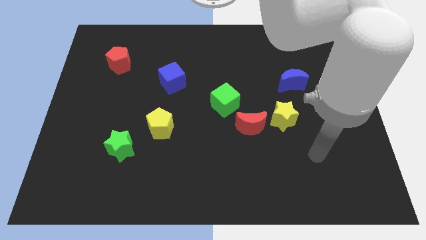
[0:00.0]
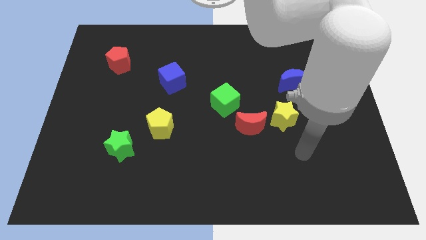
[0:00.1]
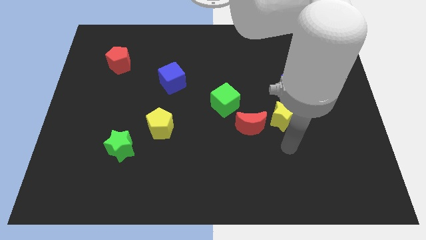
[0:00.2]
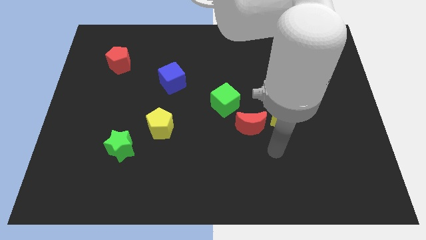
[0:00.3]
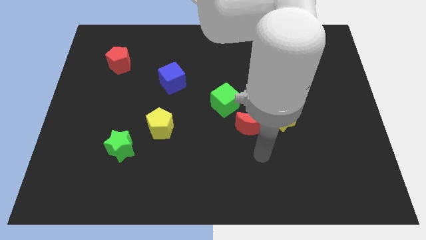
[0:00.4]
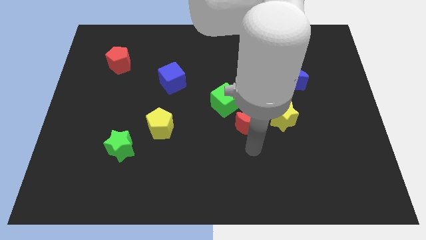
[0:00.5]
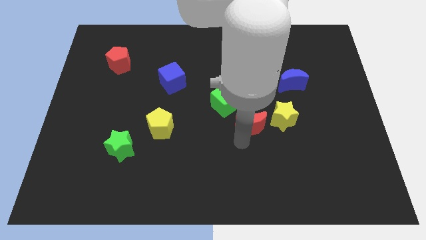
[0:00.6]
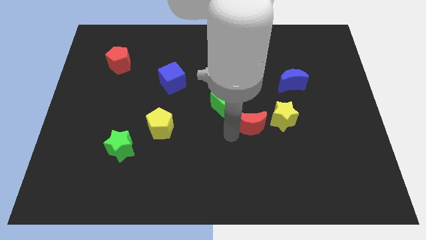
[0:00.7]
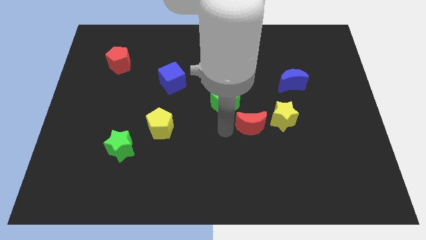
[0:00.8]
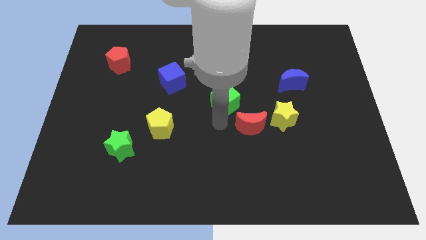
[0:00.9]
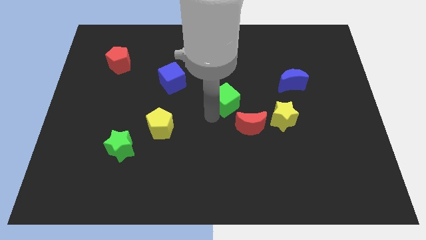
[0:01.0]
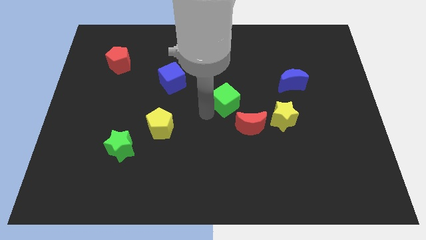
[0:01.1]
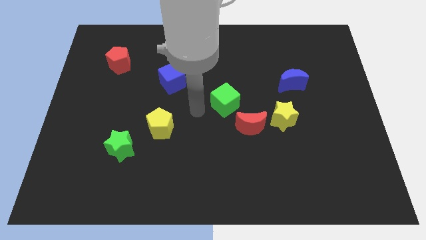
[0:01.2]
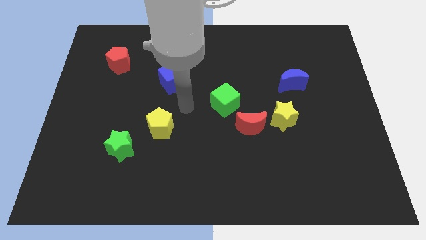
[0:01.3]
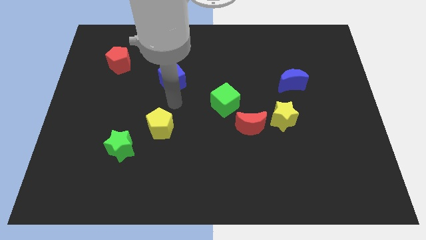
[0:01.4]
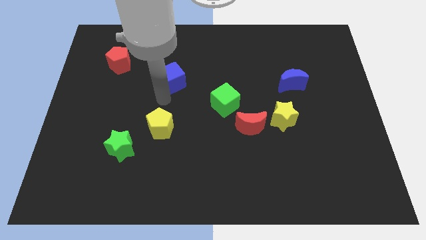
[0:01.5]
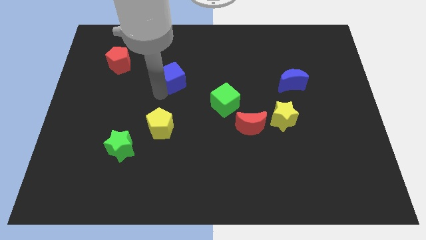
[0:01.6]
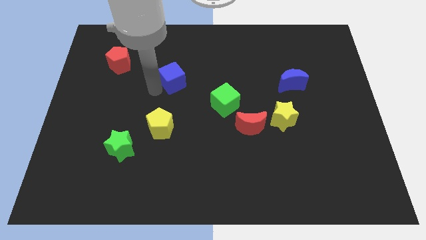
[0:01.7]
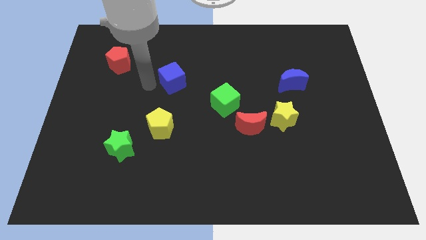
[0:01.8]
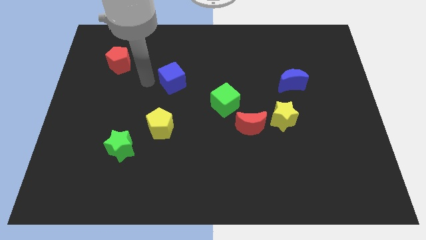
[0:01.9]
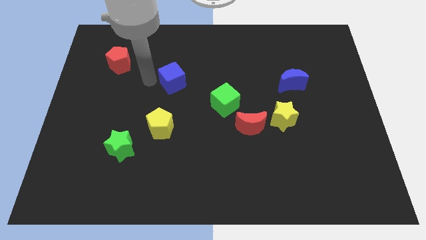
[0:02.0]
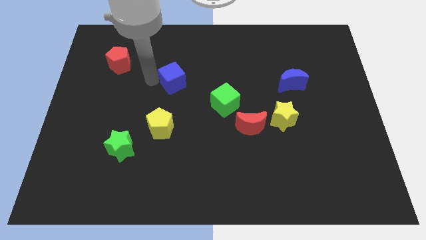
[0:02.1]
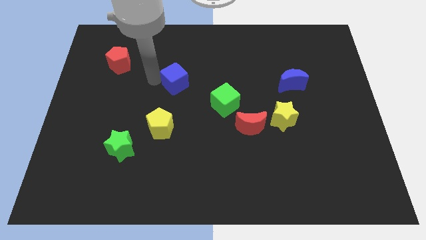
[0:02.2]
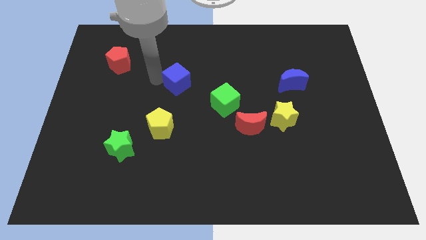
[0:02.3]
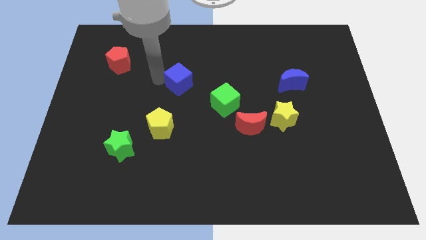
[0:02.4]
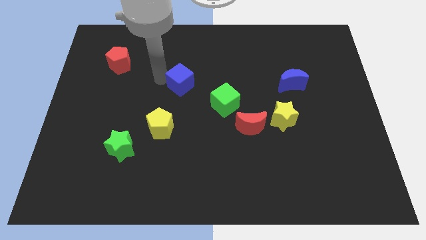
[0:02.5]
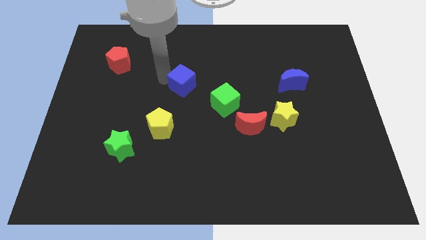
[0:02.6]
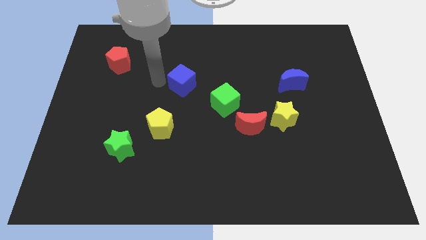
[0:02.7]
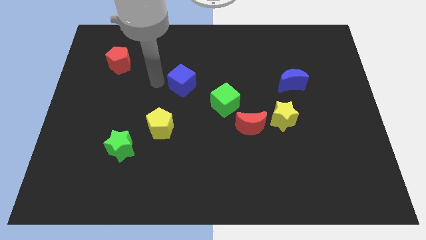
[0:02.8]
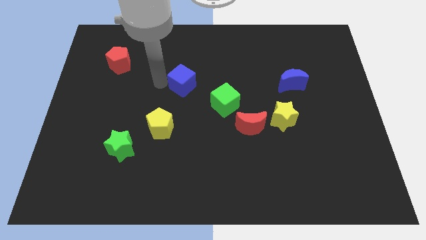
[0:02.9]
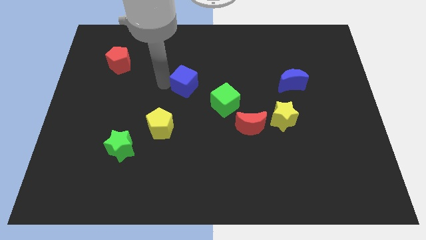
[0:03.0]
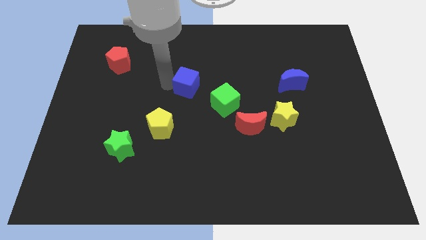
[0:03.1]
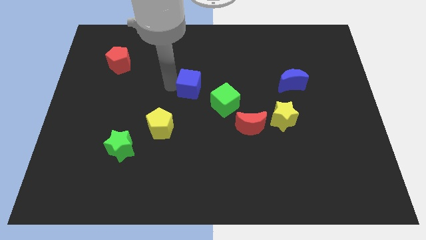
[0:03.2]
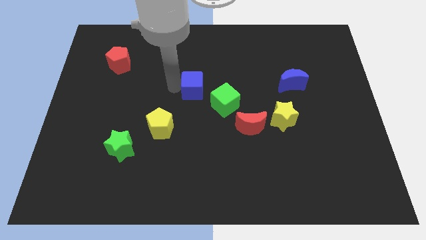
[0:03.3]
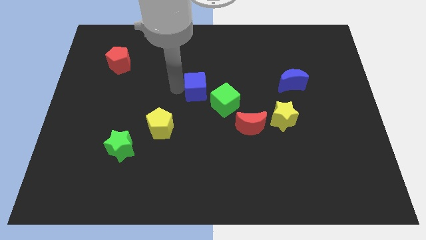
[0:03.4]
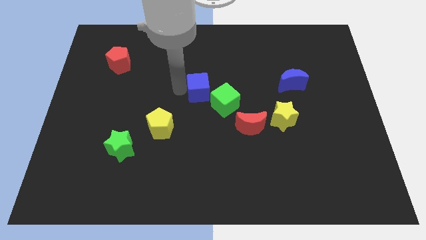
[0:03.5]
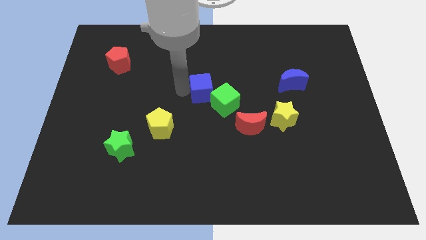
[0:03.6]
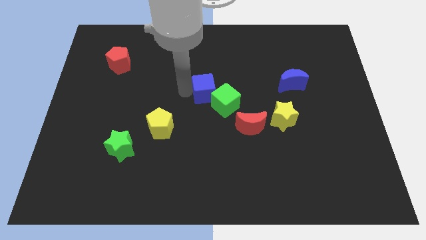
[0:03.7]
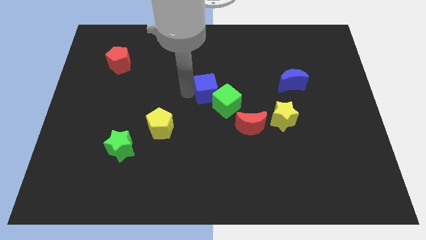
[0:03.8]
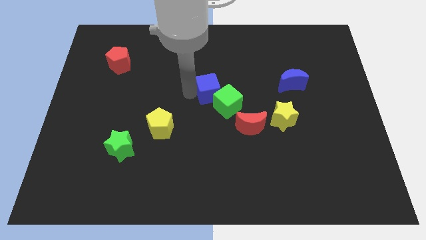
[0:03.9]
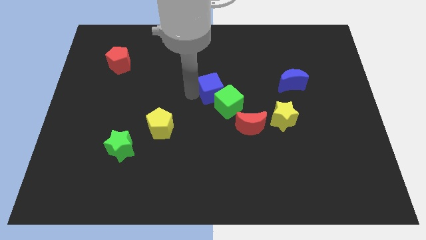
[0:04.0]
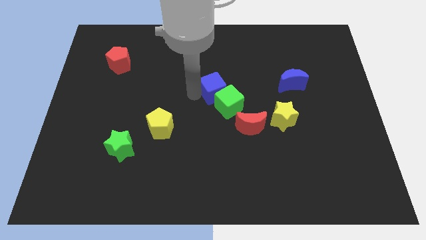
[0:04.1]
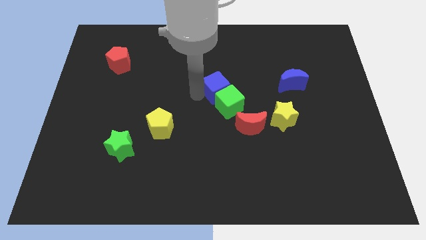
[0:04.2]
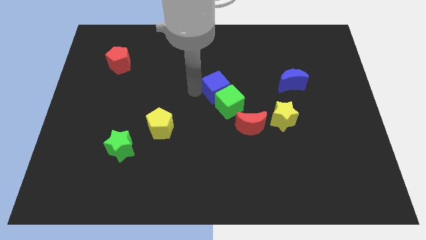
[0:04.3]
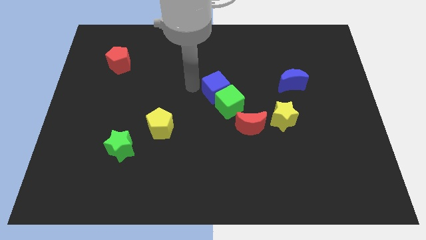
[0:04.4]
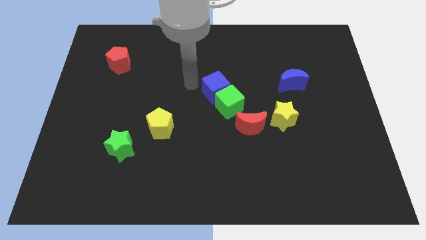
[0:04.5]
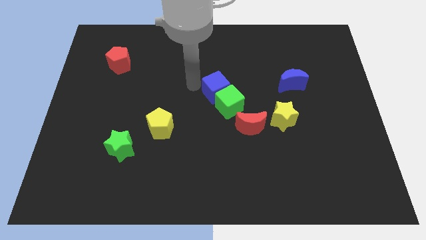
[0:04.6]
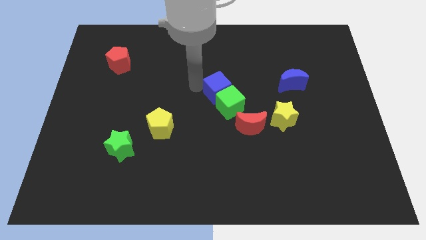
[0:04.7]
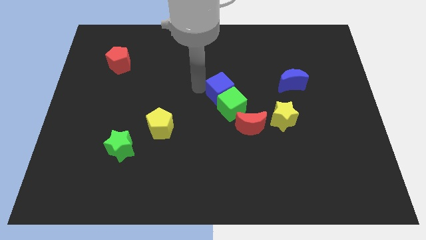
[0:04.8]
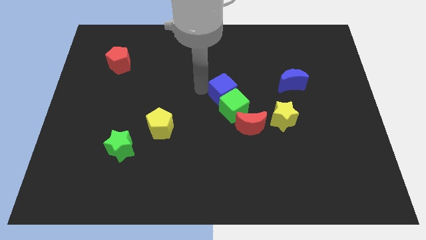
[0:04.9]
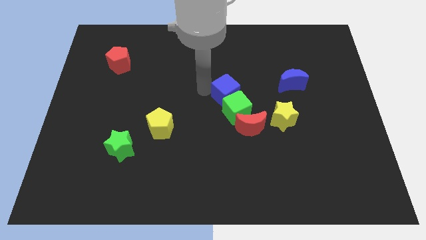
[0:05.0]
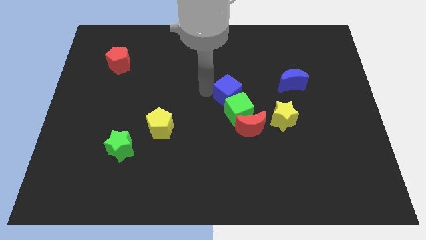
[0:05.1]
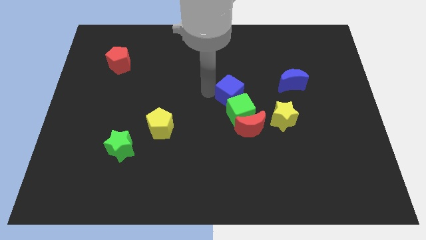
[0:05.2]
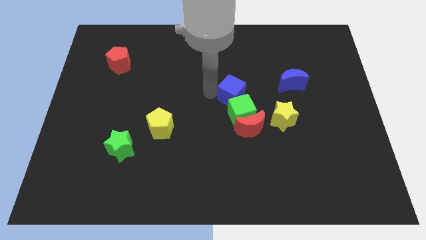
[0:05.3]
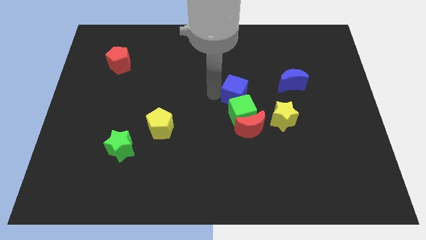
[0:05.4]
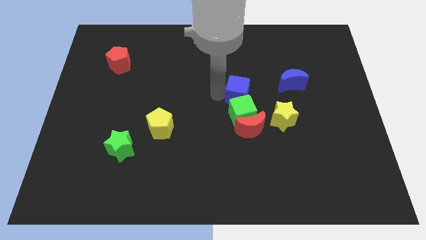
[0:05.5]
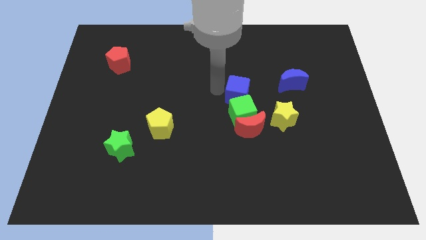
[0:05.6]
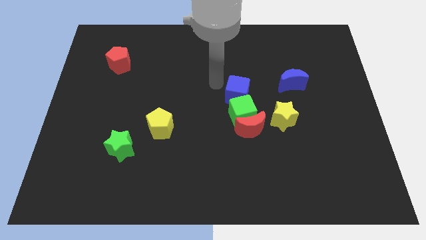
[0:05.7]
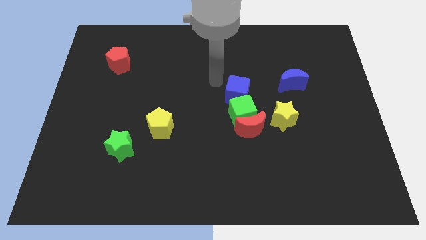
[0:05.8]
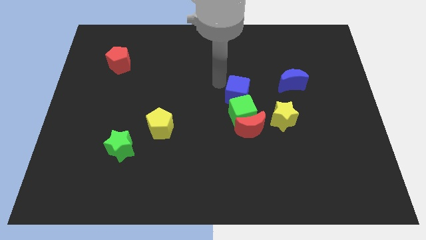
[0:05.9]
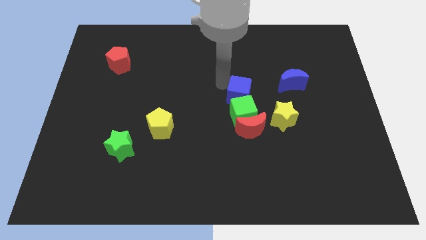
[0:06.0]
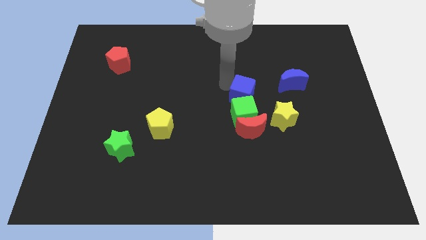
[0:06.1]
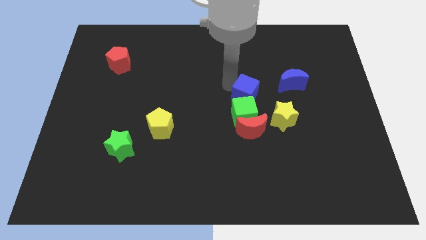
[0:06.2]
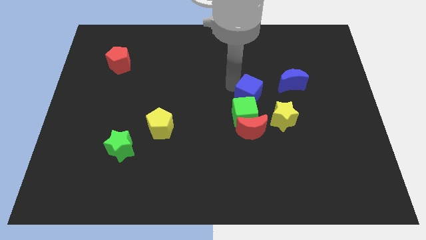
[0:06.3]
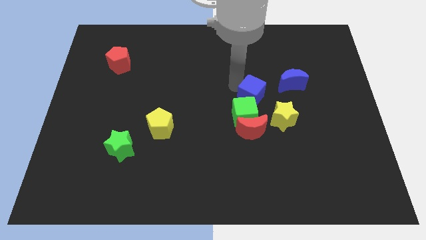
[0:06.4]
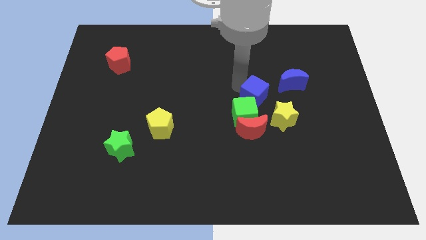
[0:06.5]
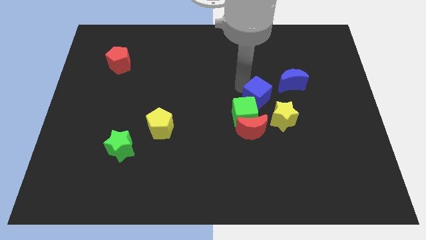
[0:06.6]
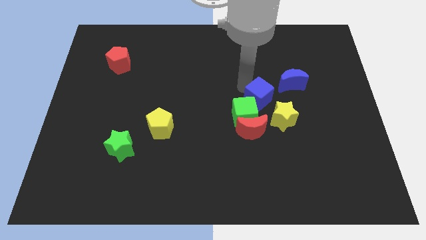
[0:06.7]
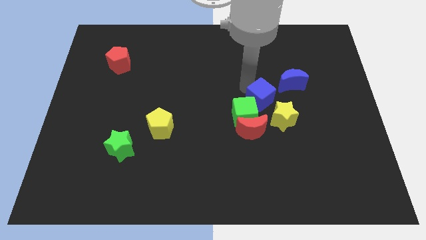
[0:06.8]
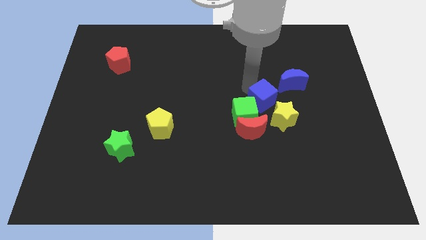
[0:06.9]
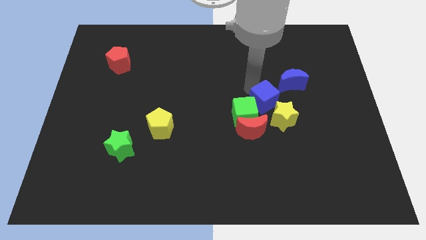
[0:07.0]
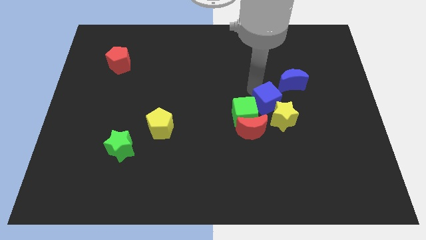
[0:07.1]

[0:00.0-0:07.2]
slide the blue cube close to the yellow star

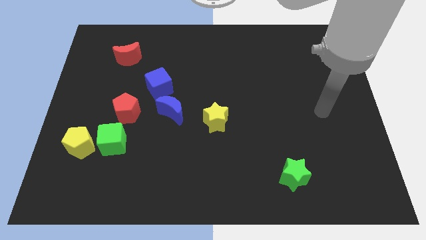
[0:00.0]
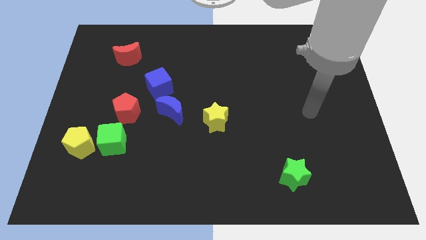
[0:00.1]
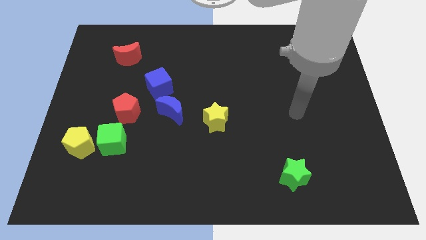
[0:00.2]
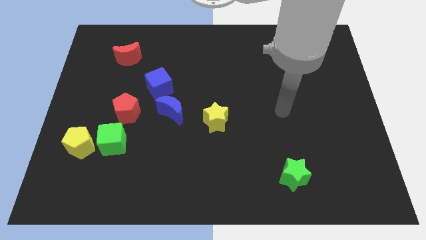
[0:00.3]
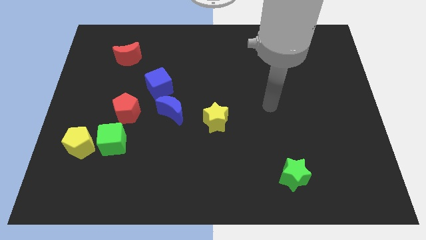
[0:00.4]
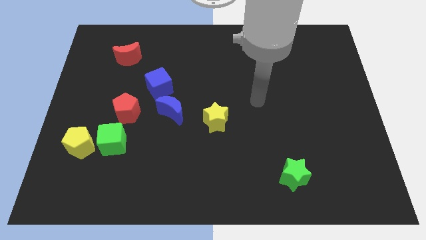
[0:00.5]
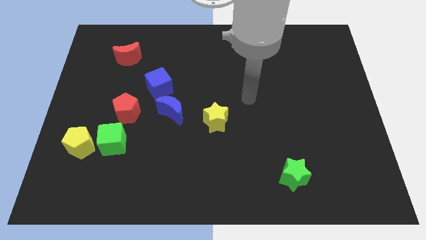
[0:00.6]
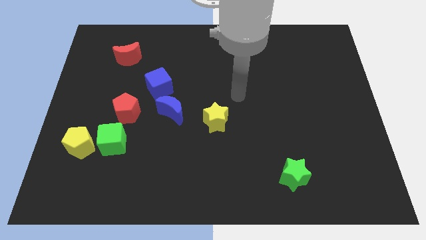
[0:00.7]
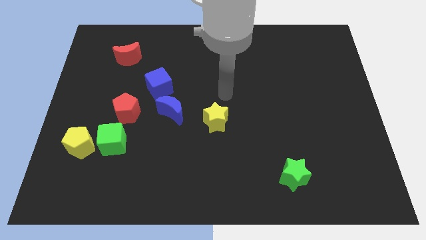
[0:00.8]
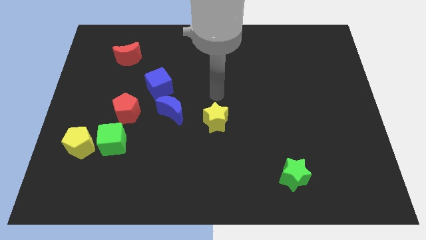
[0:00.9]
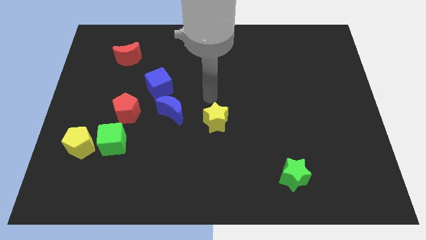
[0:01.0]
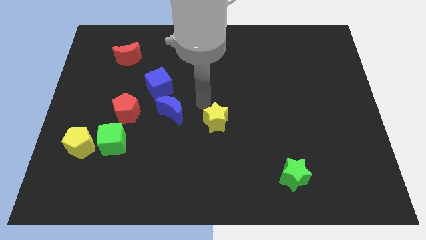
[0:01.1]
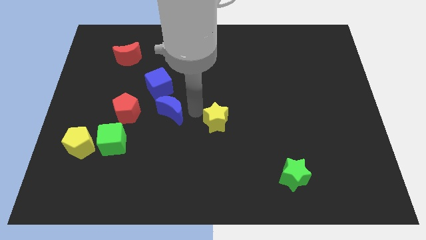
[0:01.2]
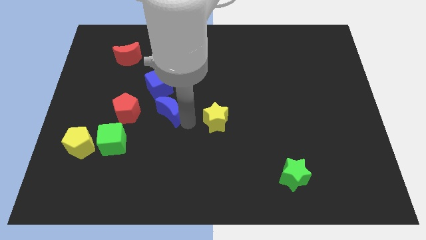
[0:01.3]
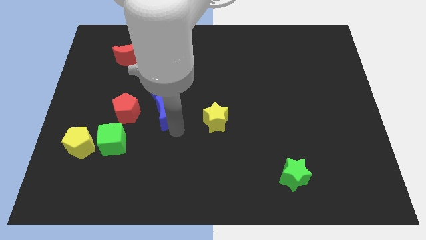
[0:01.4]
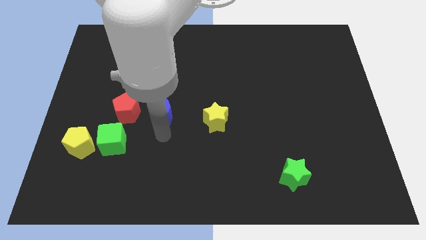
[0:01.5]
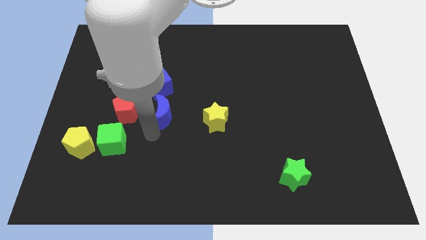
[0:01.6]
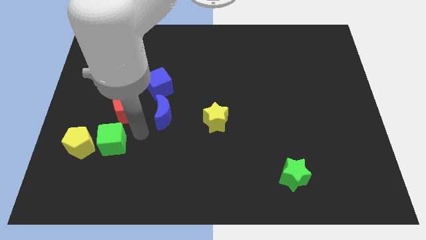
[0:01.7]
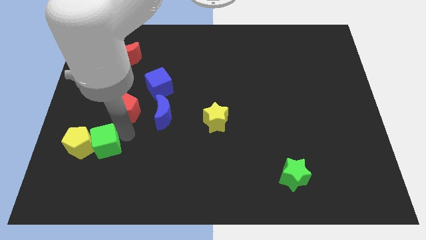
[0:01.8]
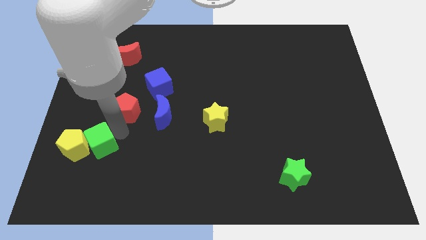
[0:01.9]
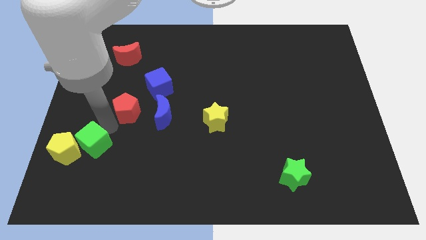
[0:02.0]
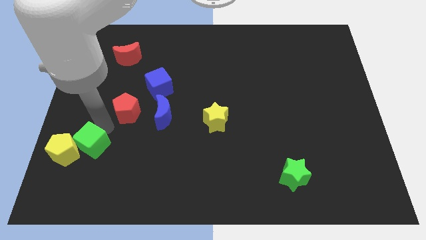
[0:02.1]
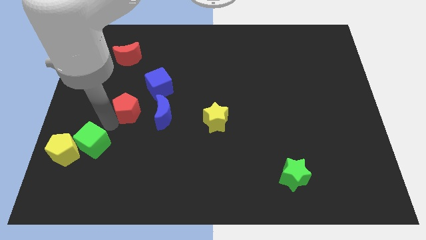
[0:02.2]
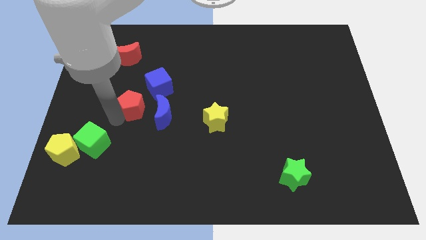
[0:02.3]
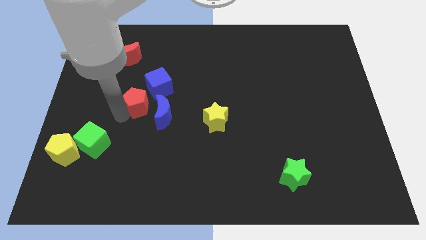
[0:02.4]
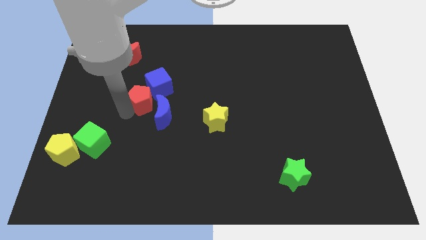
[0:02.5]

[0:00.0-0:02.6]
move the red pentagon to the blue cube
